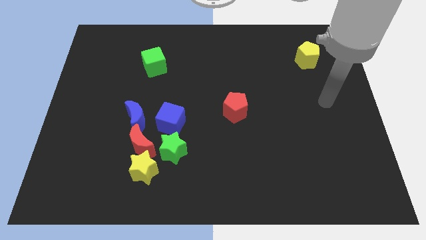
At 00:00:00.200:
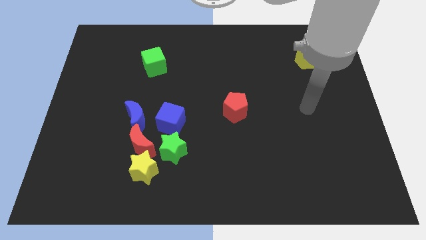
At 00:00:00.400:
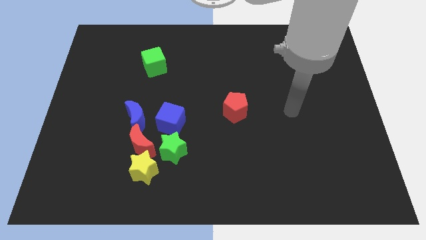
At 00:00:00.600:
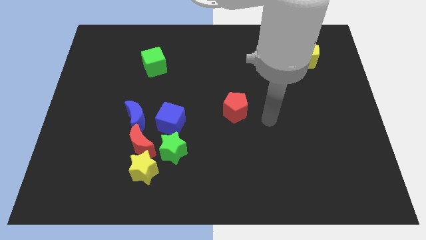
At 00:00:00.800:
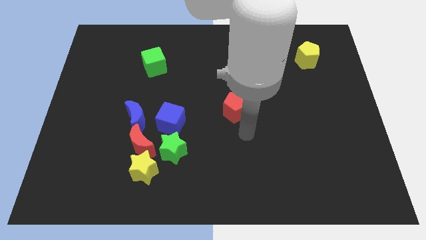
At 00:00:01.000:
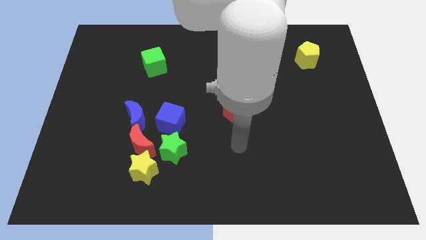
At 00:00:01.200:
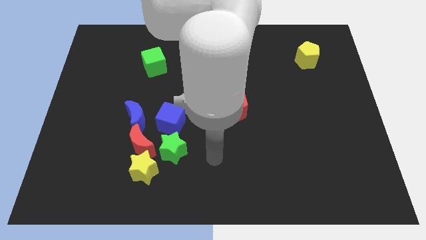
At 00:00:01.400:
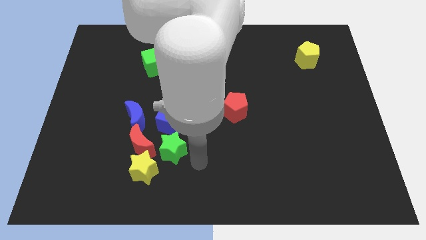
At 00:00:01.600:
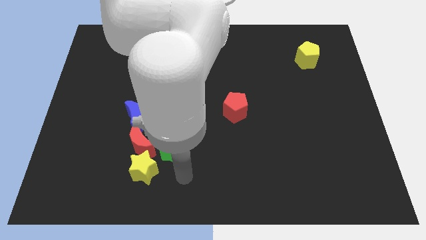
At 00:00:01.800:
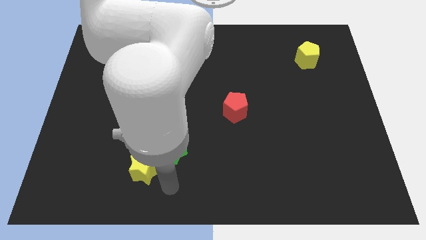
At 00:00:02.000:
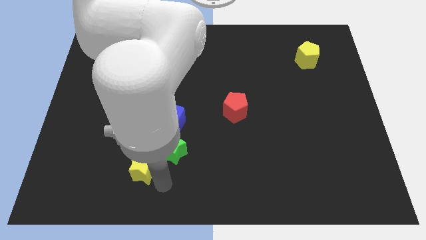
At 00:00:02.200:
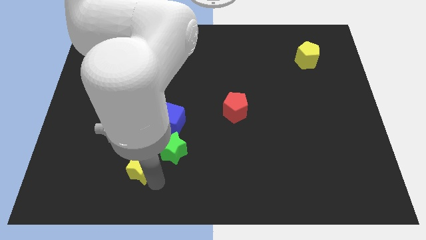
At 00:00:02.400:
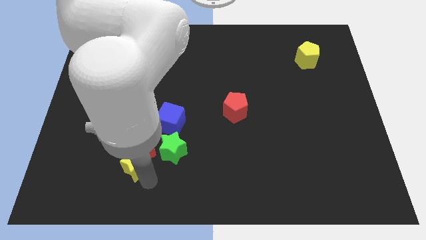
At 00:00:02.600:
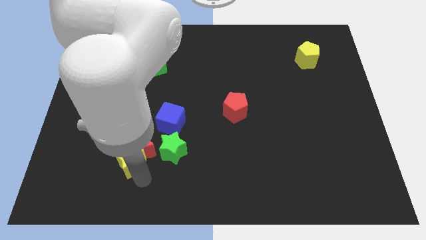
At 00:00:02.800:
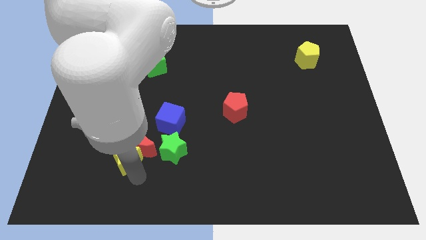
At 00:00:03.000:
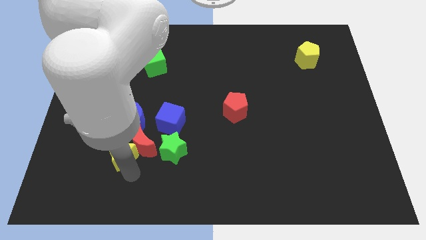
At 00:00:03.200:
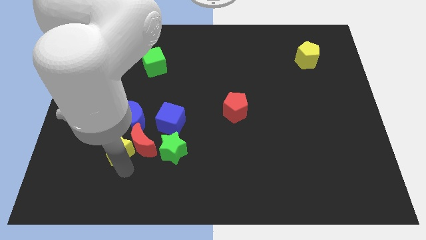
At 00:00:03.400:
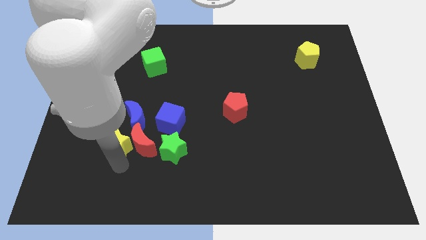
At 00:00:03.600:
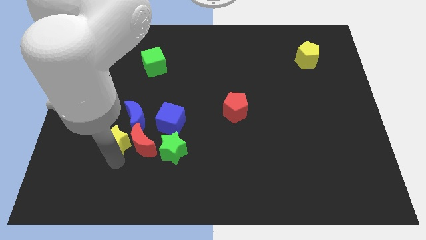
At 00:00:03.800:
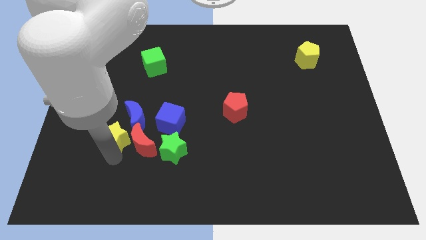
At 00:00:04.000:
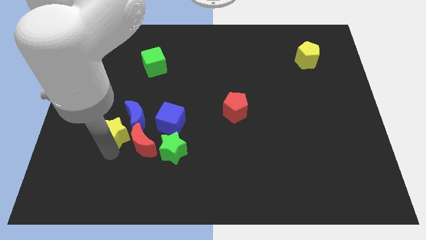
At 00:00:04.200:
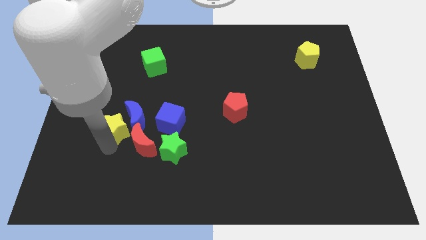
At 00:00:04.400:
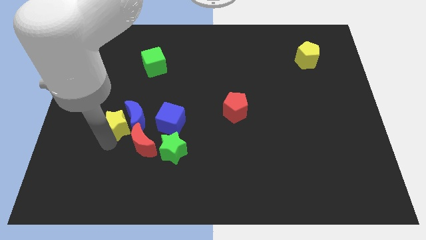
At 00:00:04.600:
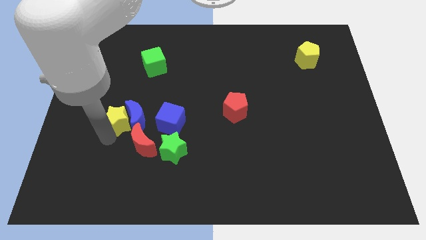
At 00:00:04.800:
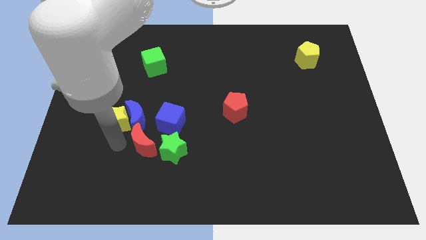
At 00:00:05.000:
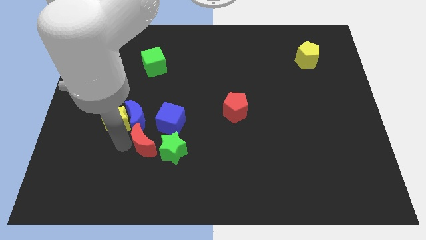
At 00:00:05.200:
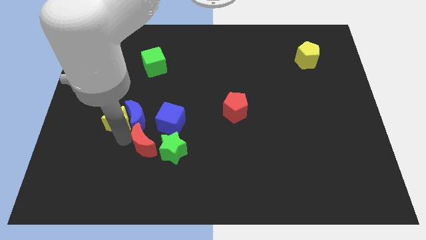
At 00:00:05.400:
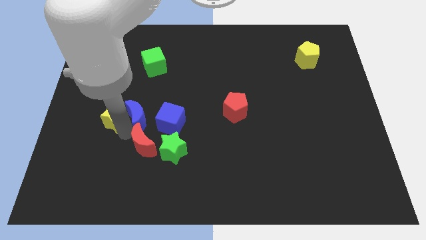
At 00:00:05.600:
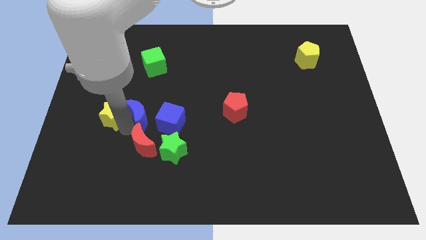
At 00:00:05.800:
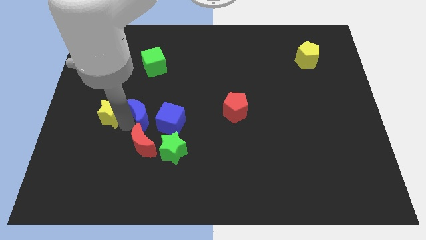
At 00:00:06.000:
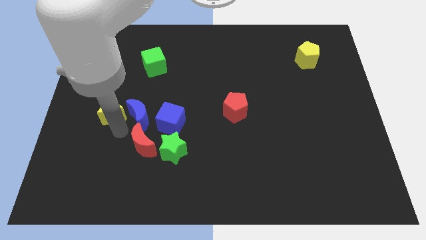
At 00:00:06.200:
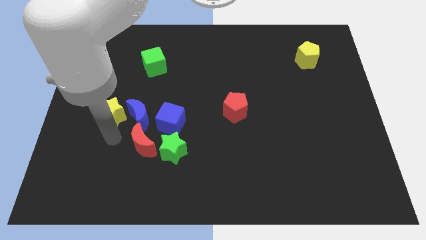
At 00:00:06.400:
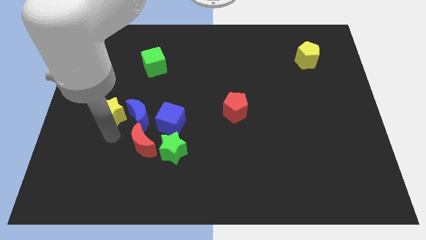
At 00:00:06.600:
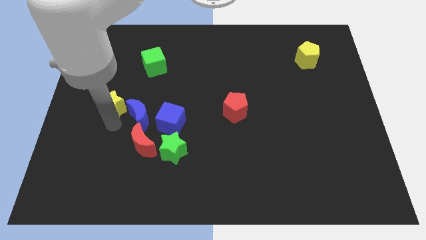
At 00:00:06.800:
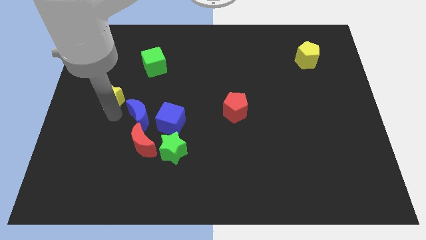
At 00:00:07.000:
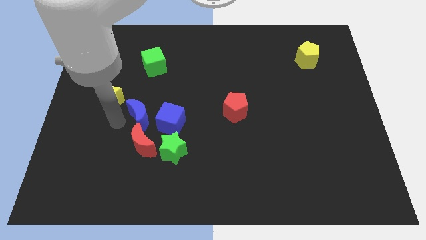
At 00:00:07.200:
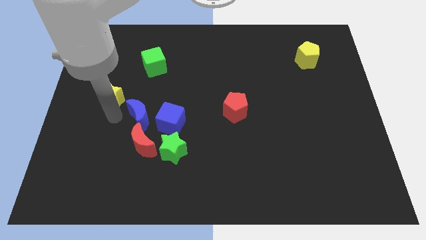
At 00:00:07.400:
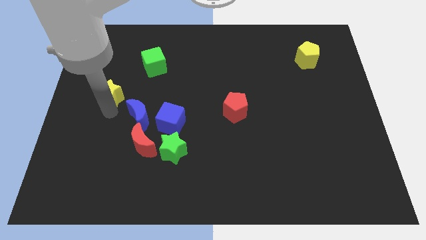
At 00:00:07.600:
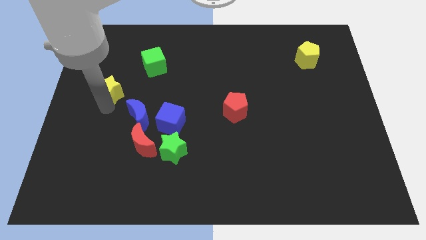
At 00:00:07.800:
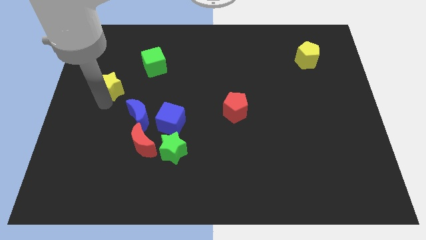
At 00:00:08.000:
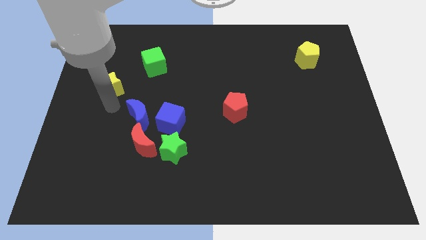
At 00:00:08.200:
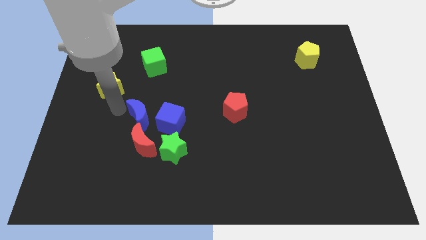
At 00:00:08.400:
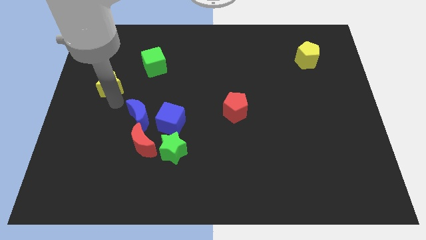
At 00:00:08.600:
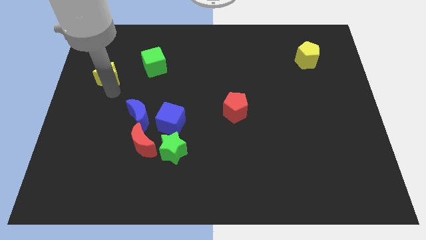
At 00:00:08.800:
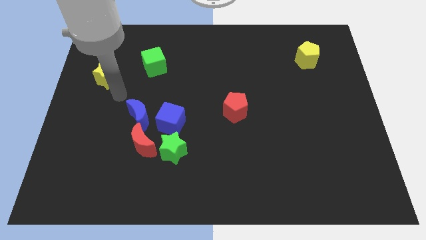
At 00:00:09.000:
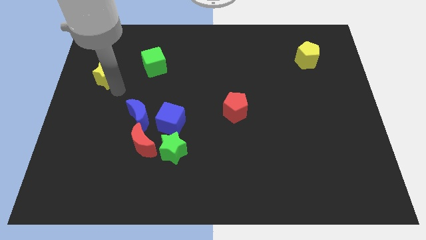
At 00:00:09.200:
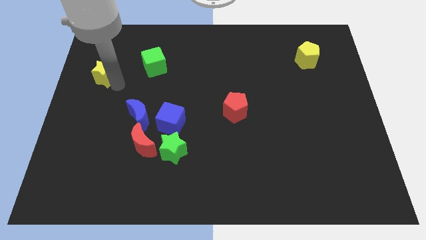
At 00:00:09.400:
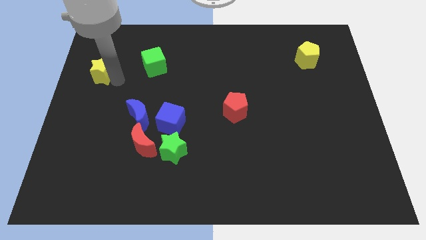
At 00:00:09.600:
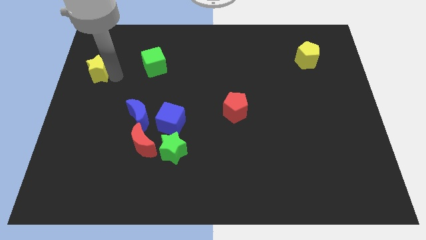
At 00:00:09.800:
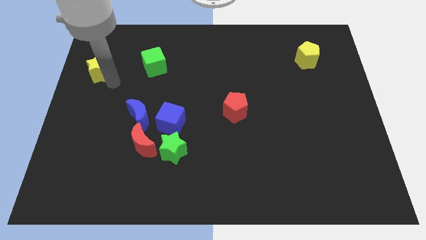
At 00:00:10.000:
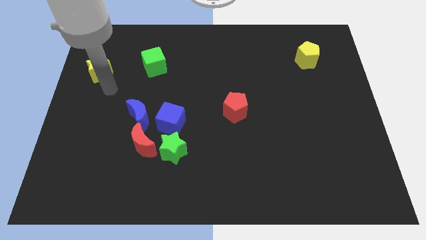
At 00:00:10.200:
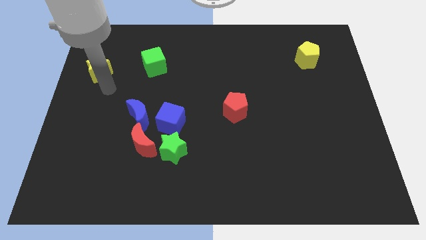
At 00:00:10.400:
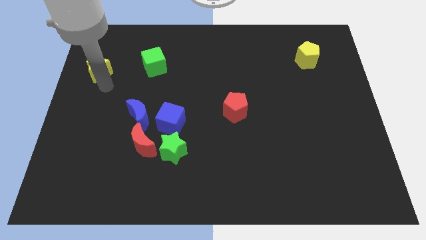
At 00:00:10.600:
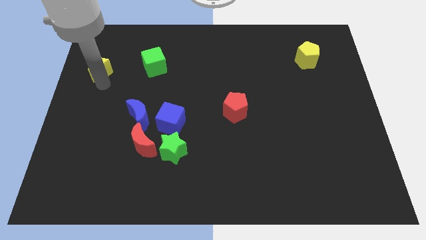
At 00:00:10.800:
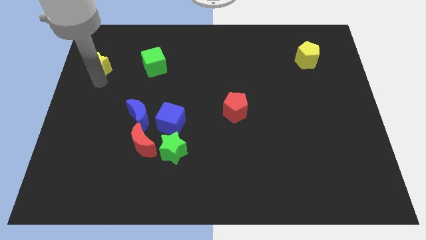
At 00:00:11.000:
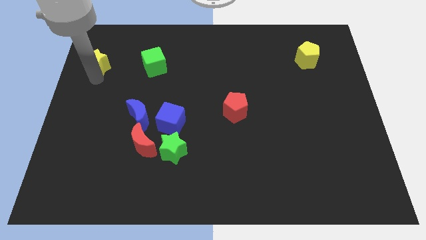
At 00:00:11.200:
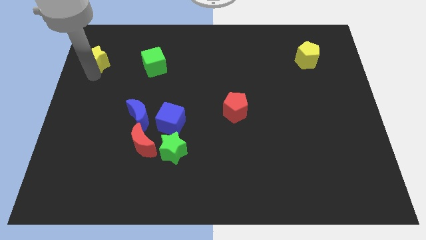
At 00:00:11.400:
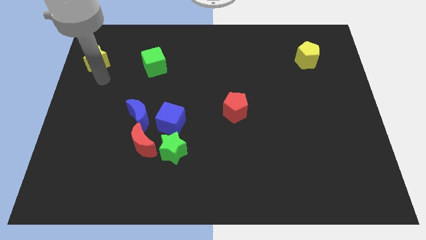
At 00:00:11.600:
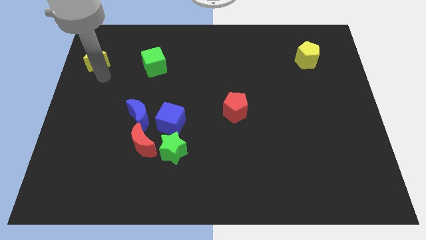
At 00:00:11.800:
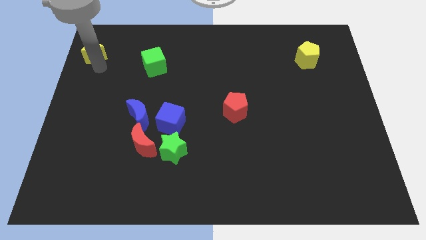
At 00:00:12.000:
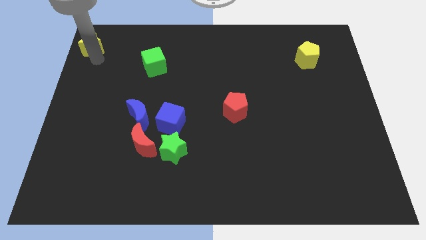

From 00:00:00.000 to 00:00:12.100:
push the yellow star to the top left of the board
